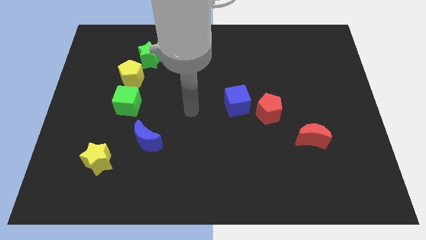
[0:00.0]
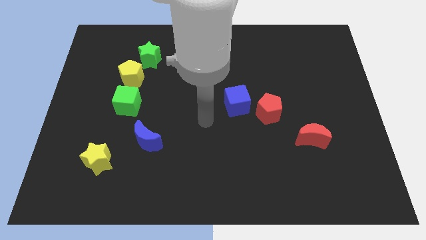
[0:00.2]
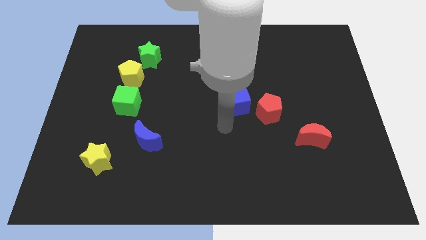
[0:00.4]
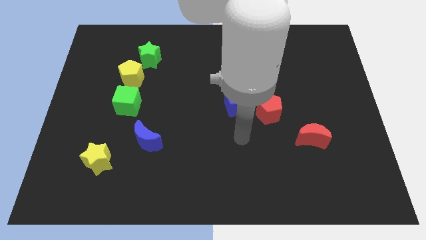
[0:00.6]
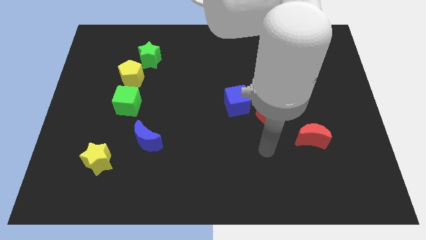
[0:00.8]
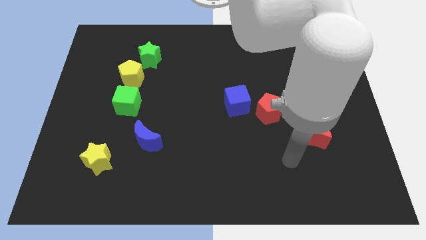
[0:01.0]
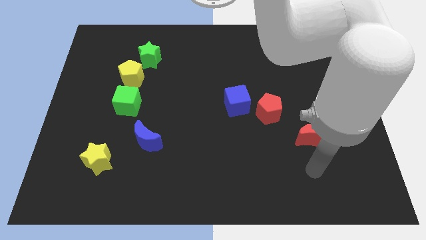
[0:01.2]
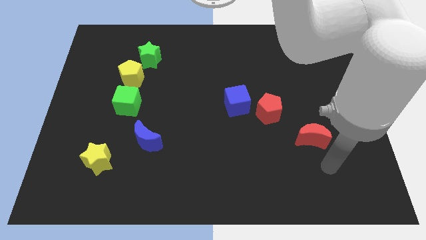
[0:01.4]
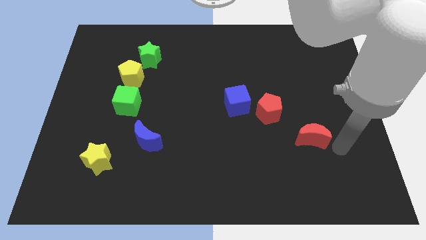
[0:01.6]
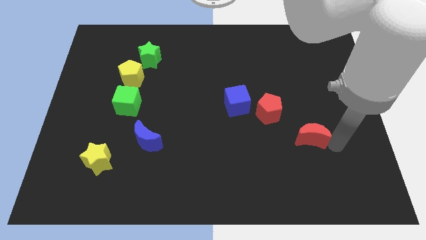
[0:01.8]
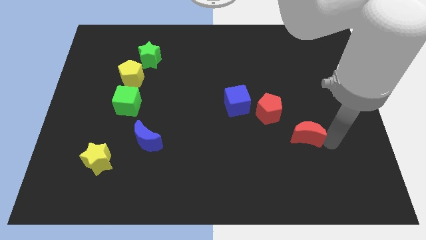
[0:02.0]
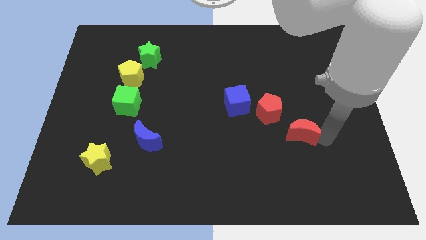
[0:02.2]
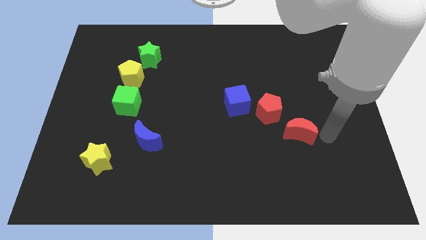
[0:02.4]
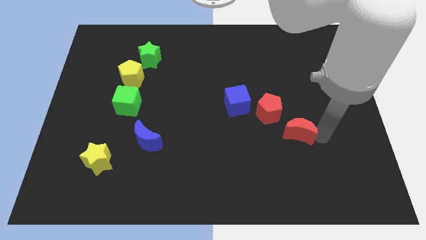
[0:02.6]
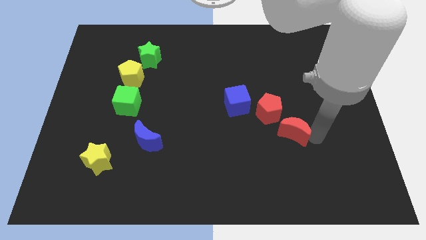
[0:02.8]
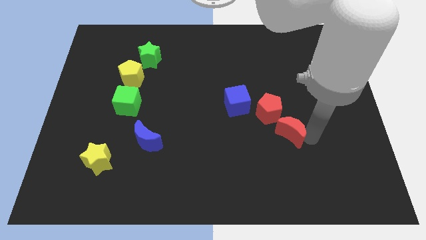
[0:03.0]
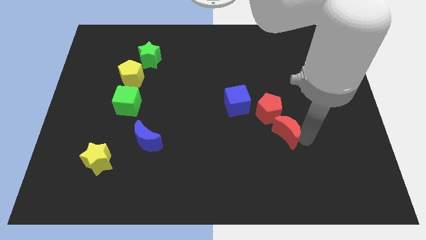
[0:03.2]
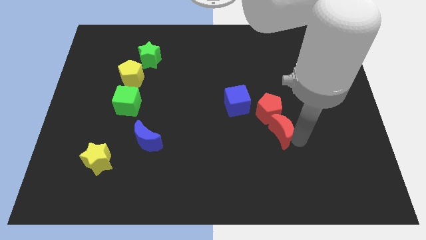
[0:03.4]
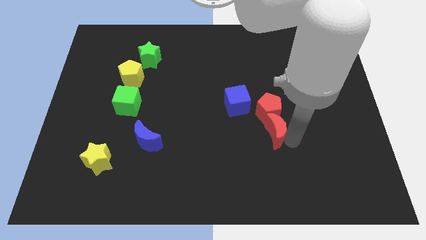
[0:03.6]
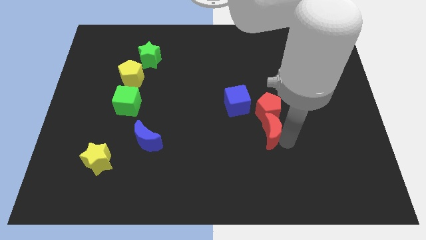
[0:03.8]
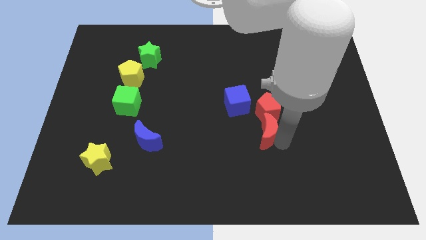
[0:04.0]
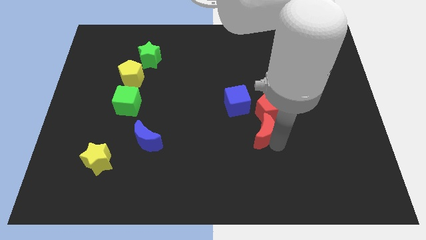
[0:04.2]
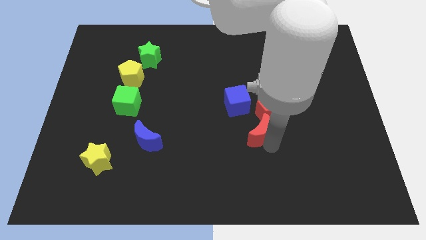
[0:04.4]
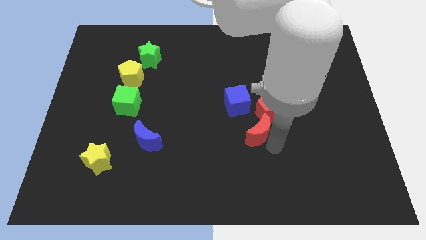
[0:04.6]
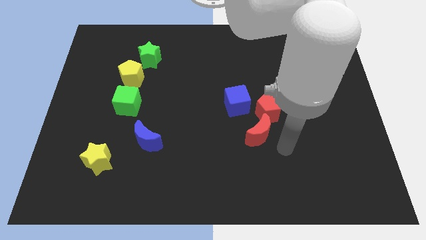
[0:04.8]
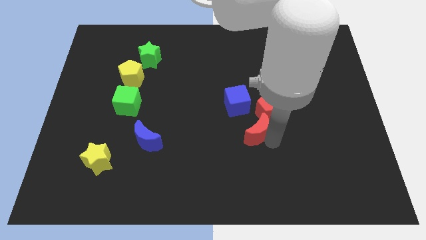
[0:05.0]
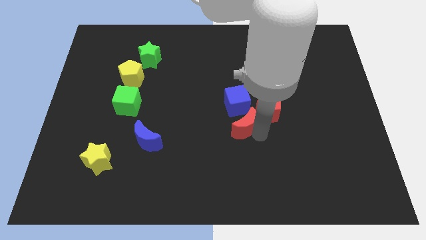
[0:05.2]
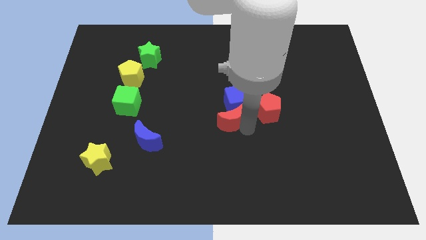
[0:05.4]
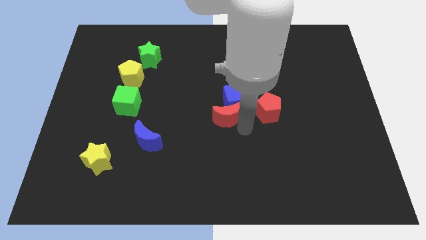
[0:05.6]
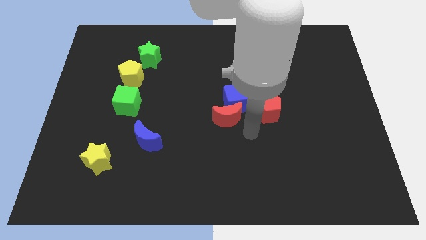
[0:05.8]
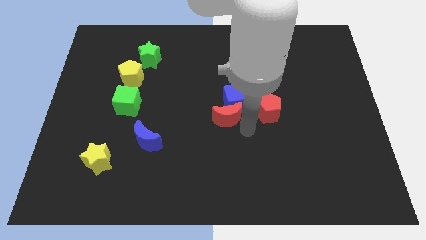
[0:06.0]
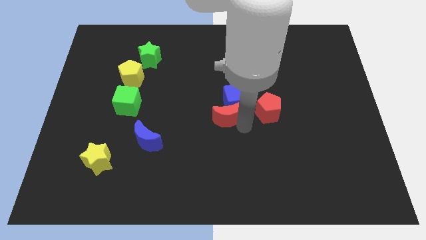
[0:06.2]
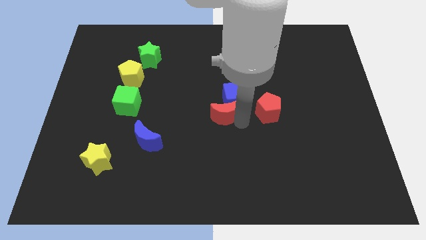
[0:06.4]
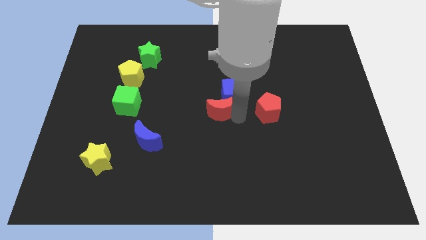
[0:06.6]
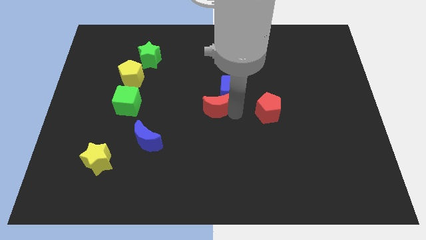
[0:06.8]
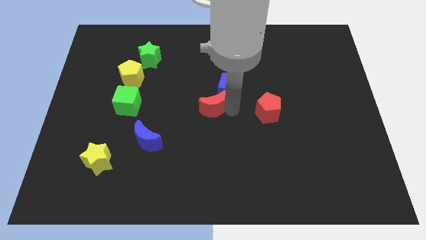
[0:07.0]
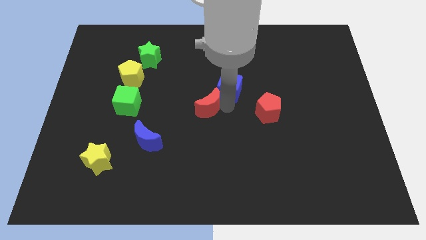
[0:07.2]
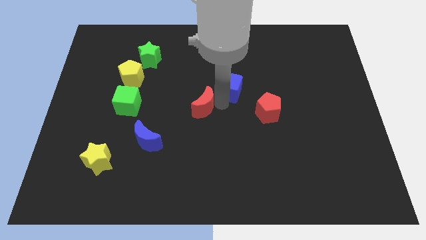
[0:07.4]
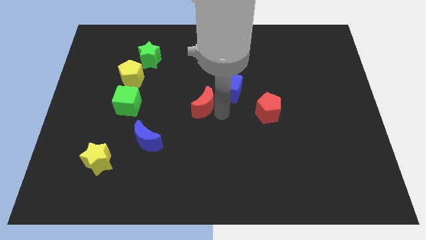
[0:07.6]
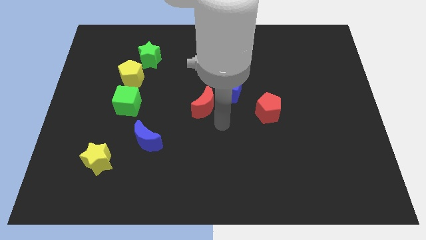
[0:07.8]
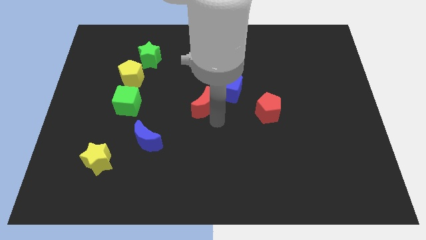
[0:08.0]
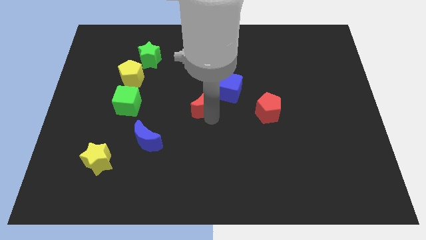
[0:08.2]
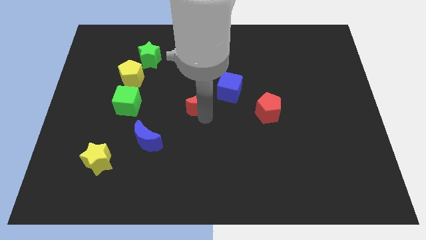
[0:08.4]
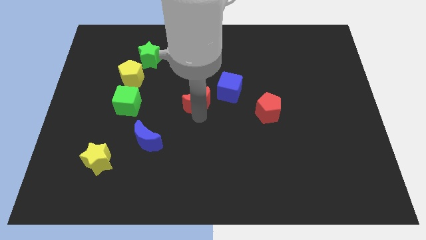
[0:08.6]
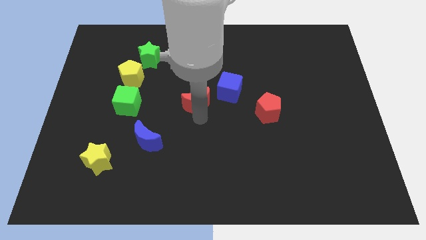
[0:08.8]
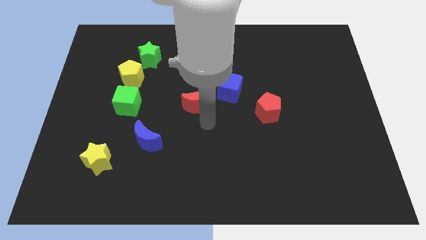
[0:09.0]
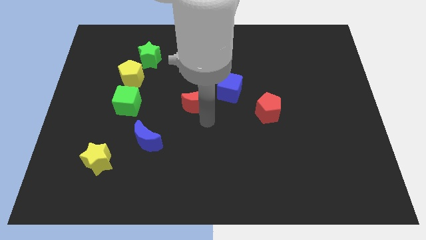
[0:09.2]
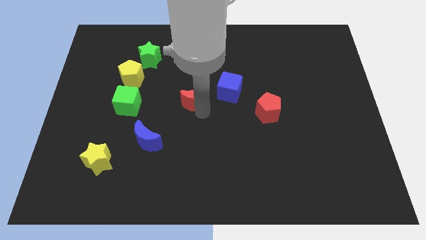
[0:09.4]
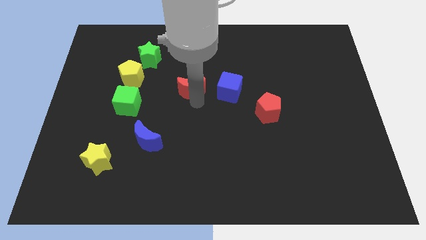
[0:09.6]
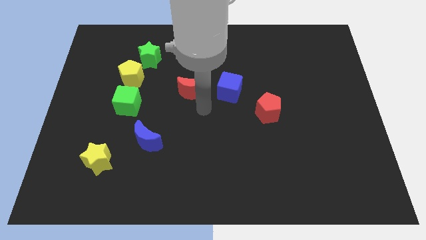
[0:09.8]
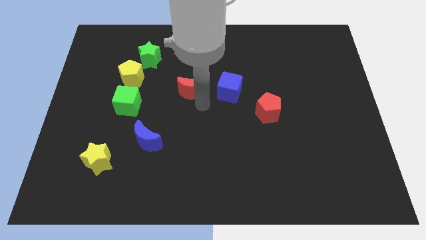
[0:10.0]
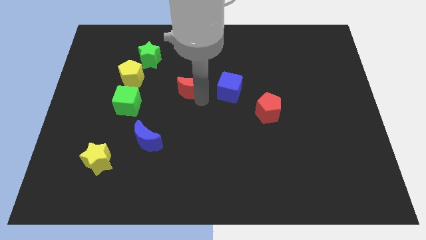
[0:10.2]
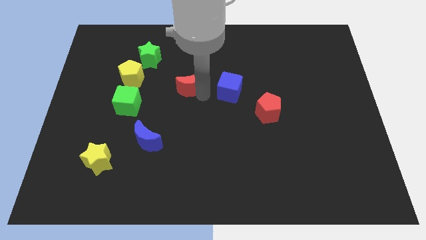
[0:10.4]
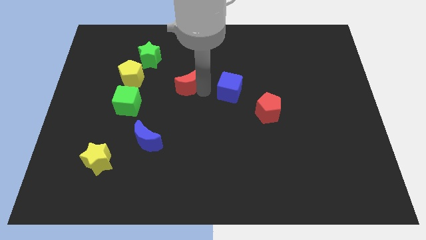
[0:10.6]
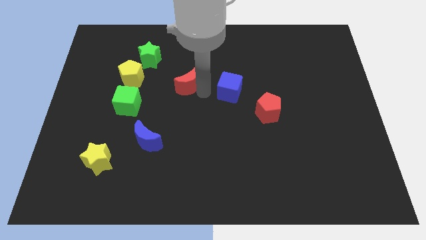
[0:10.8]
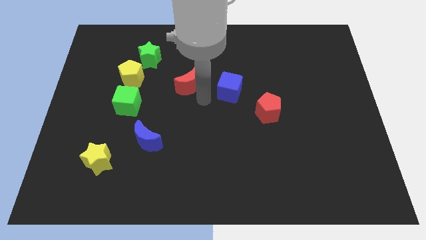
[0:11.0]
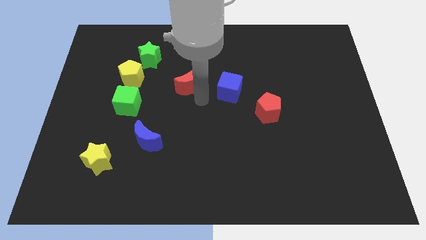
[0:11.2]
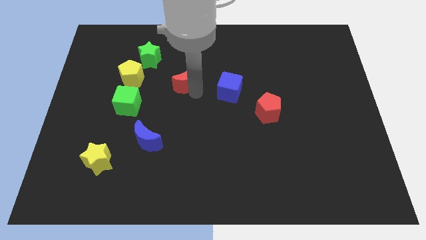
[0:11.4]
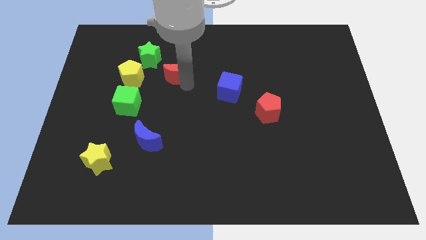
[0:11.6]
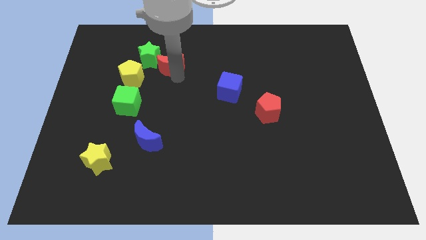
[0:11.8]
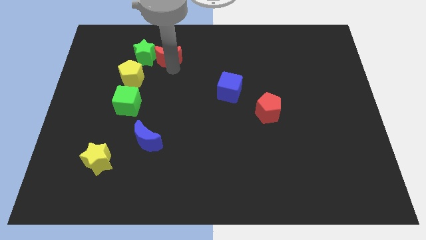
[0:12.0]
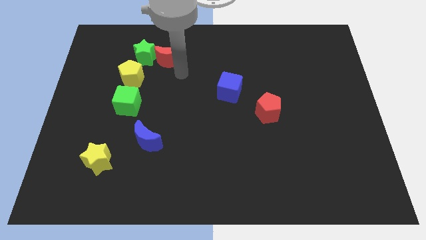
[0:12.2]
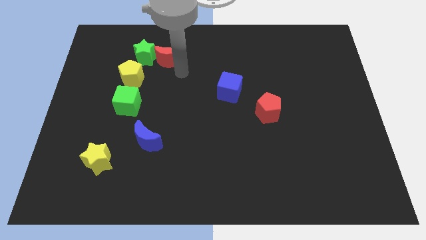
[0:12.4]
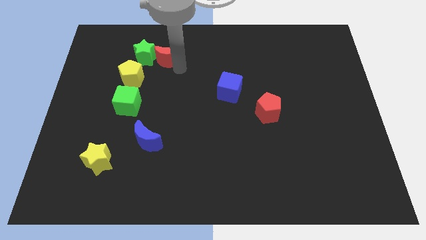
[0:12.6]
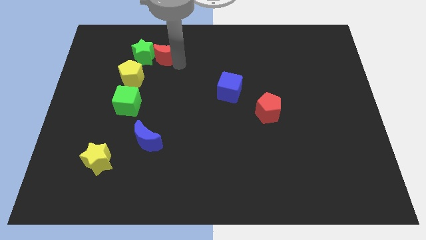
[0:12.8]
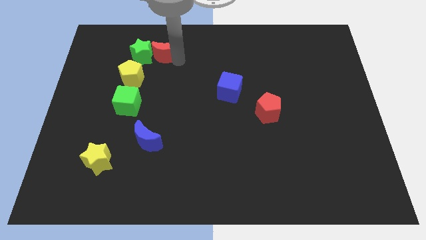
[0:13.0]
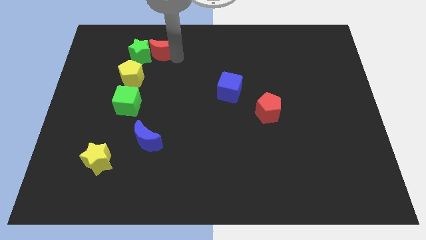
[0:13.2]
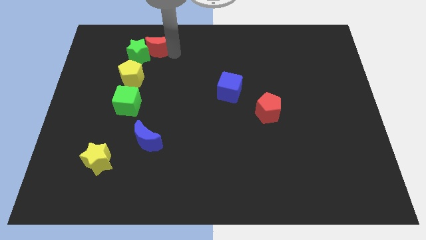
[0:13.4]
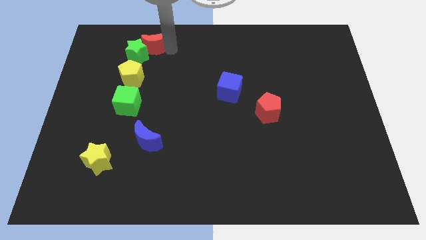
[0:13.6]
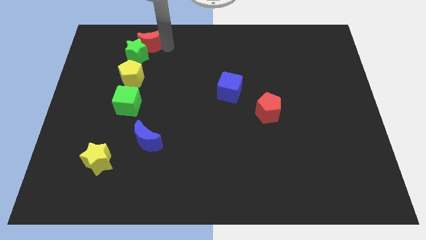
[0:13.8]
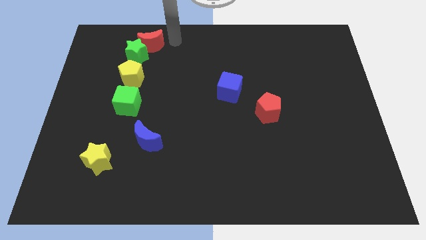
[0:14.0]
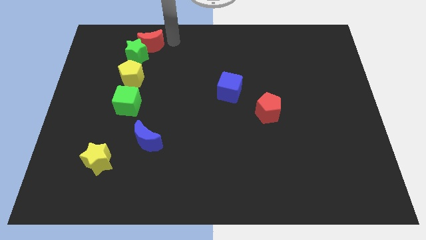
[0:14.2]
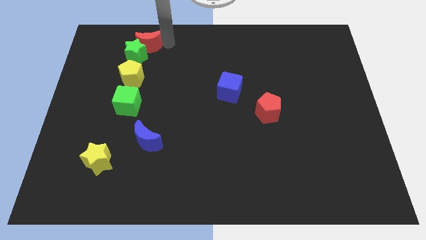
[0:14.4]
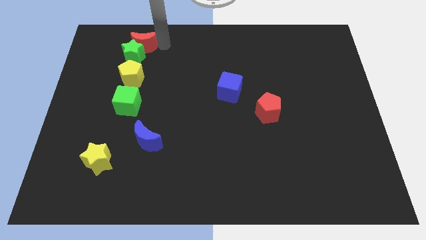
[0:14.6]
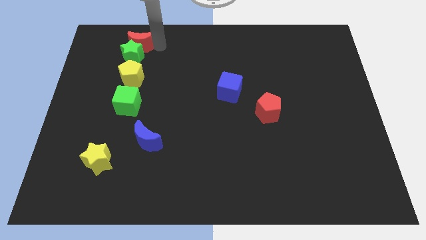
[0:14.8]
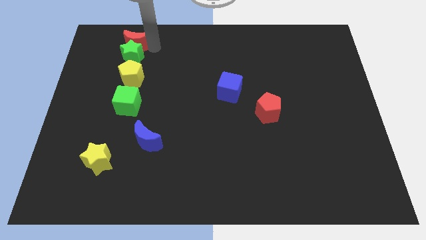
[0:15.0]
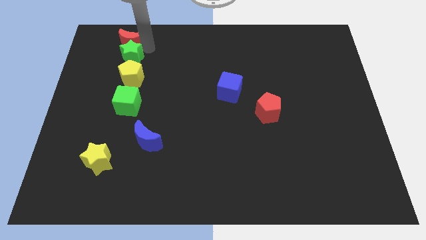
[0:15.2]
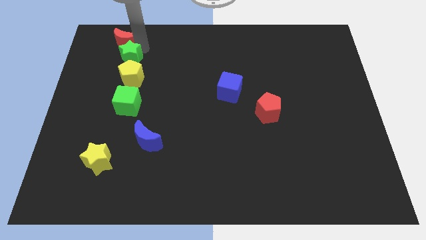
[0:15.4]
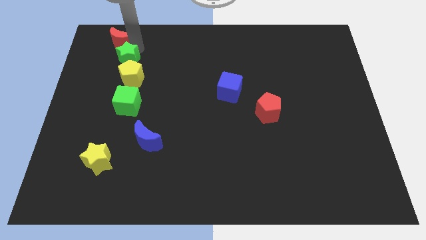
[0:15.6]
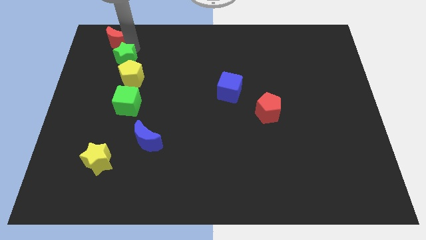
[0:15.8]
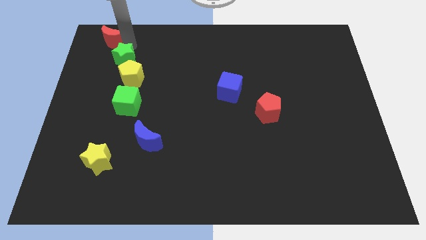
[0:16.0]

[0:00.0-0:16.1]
slide the red moon to the top left corner
